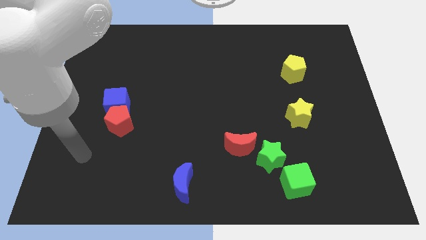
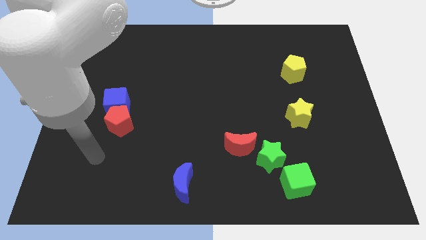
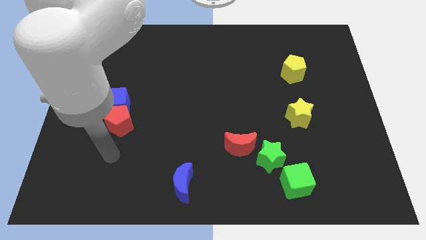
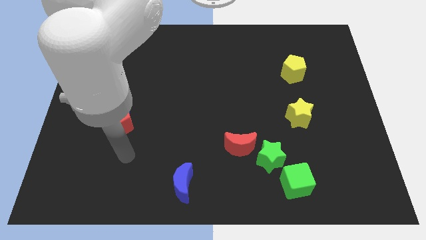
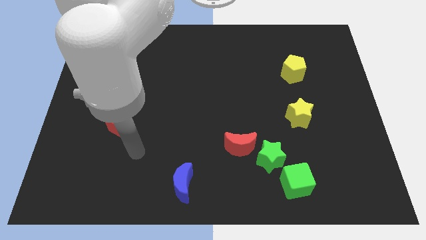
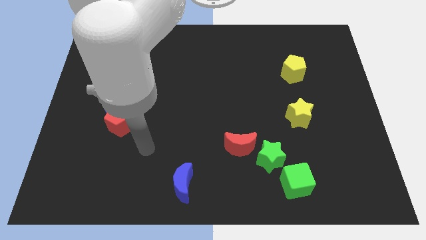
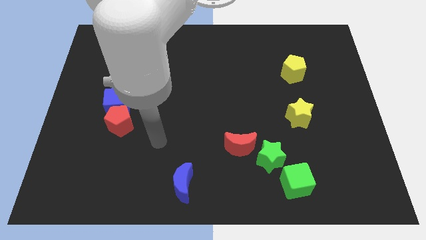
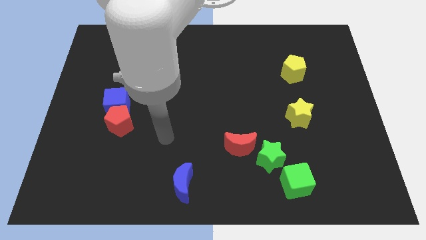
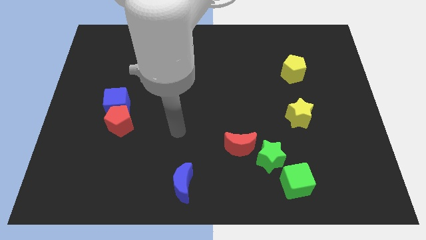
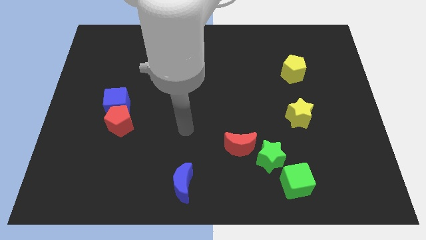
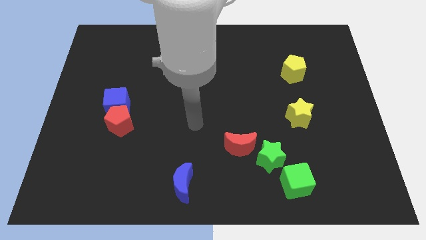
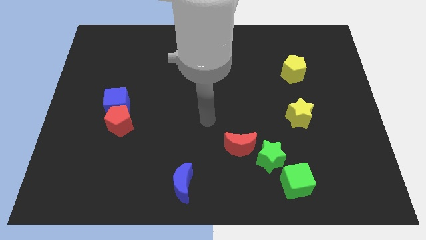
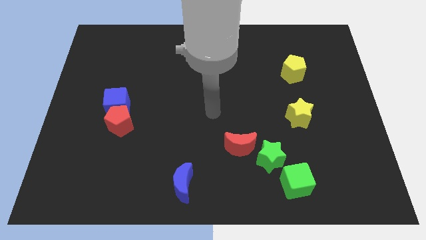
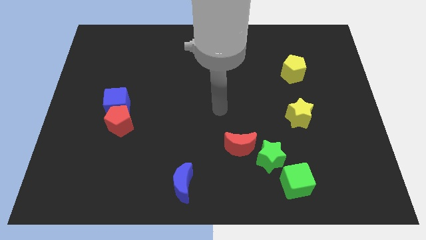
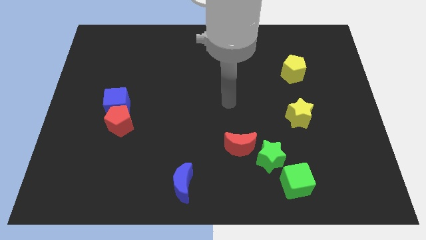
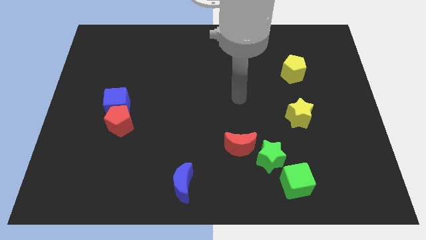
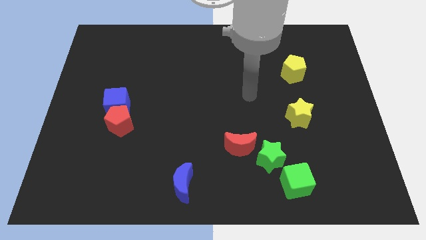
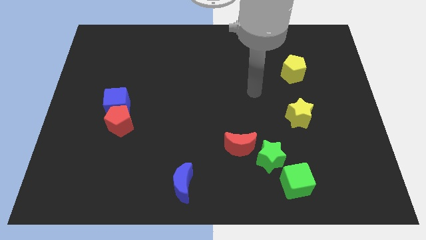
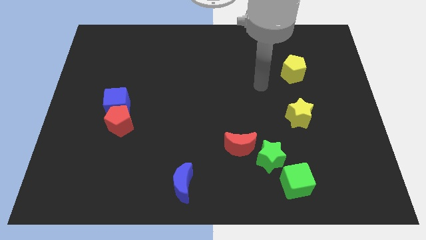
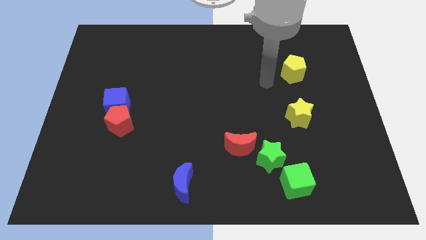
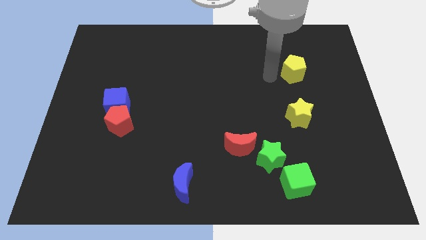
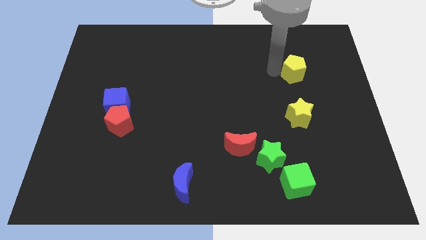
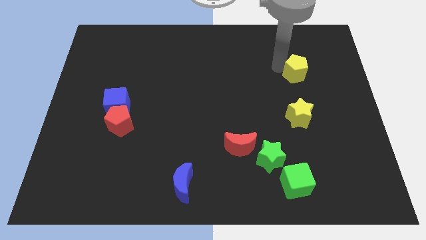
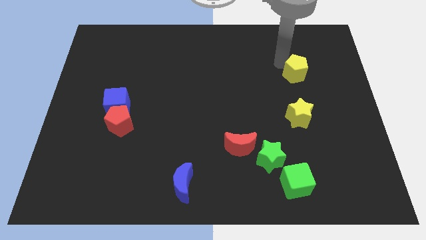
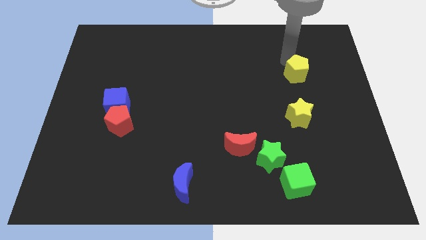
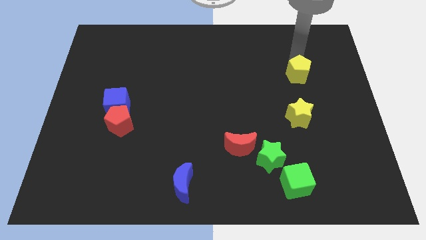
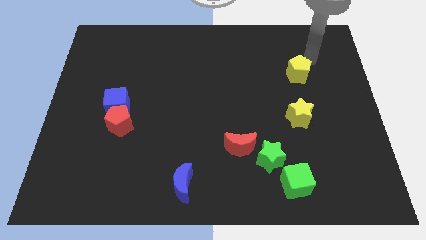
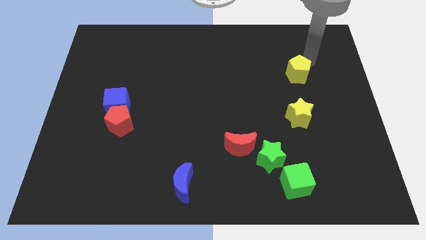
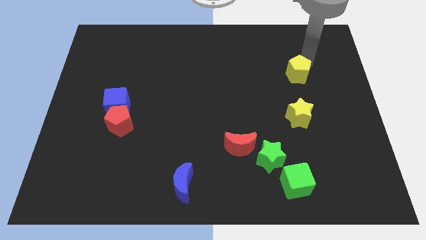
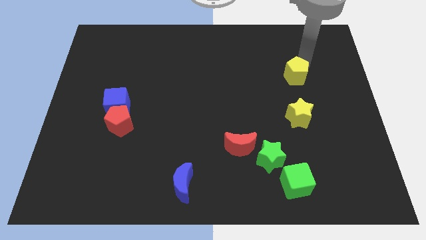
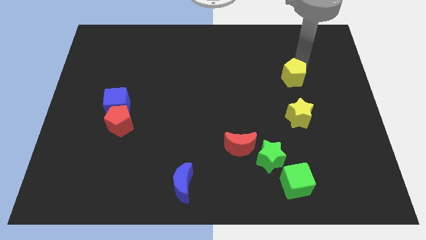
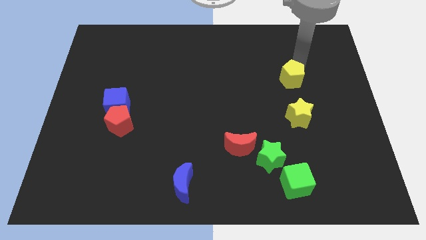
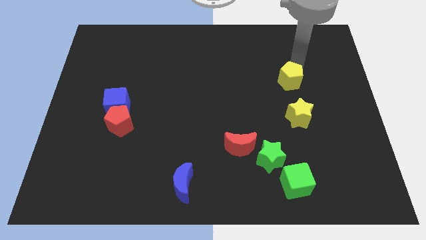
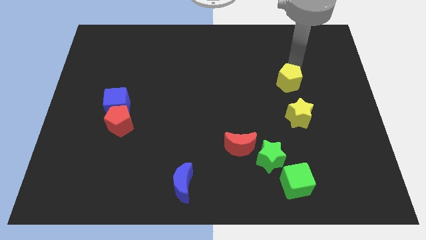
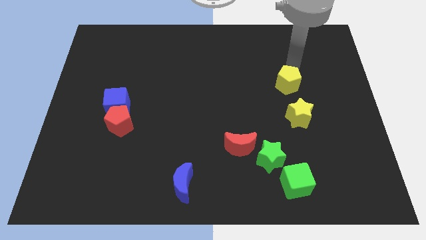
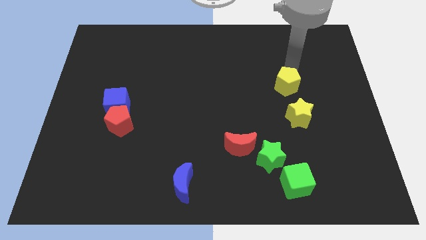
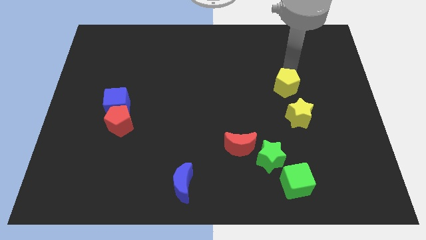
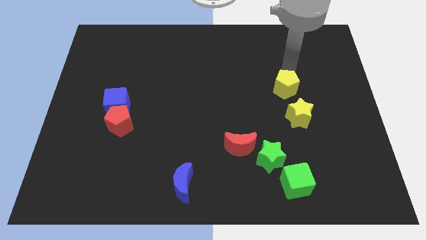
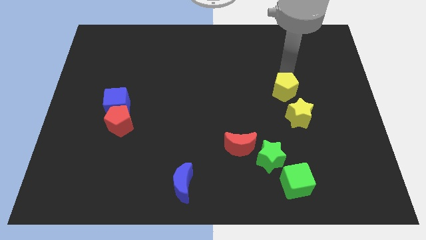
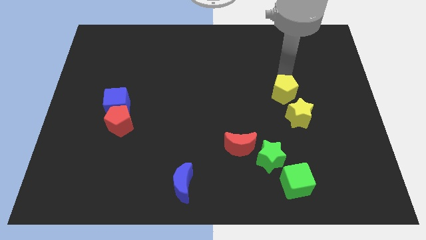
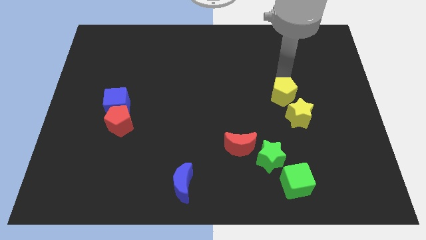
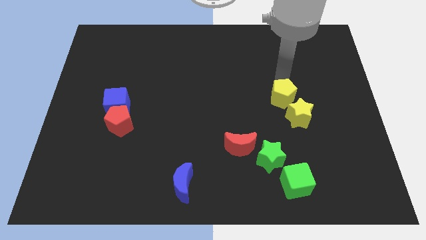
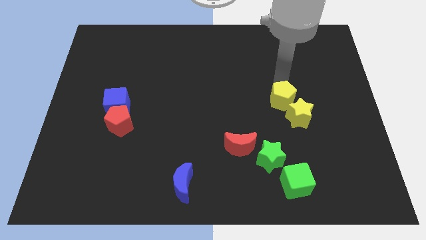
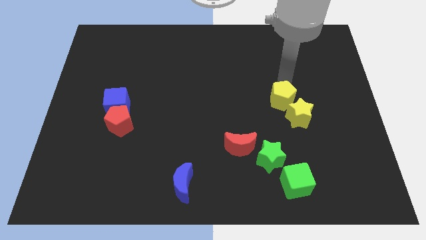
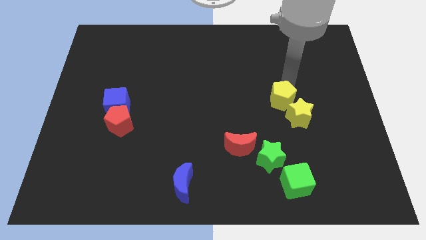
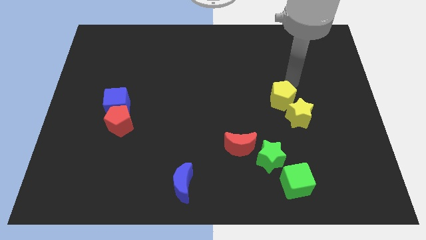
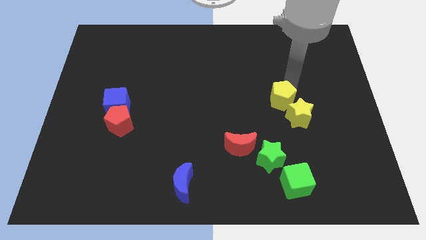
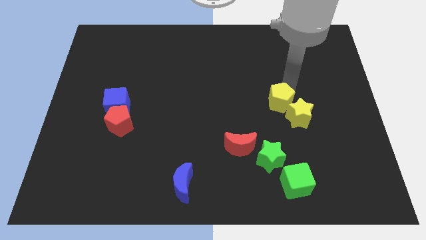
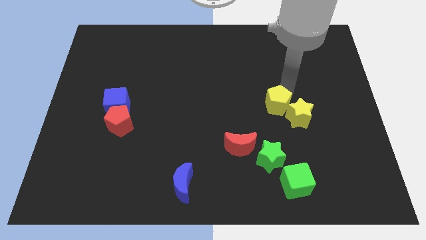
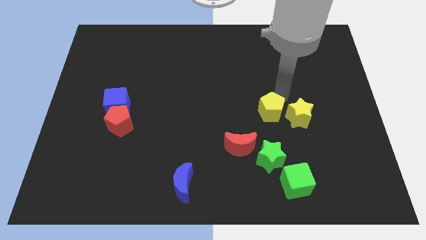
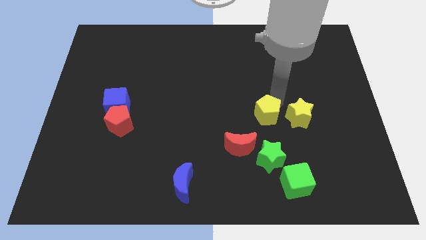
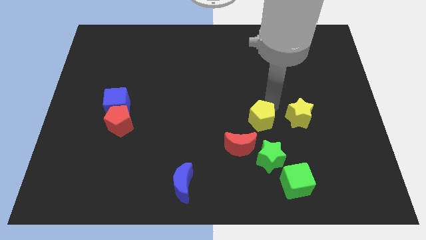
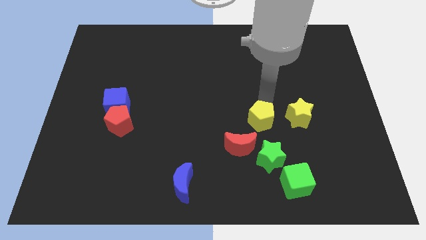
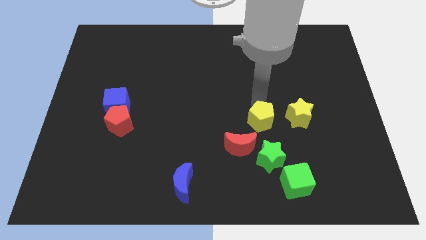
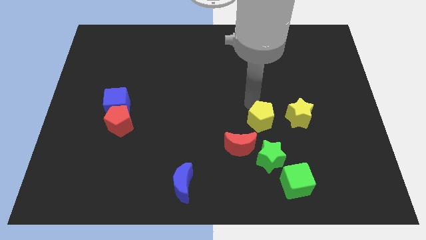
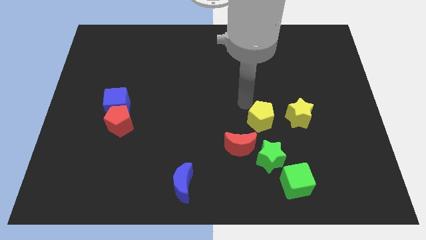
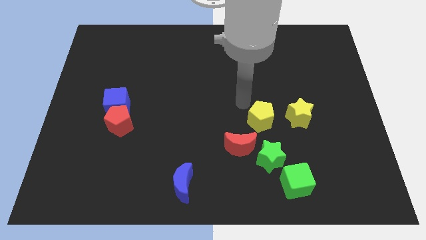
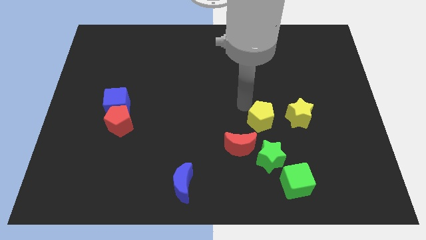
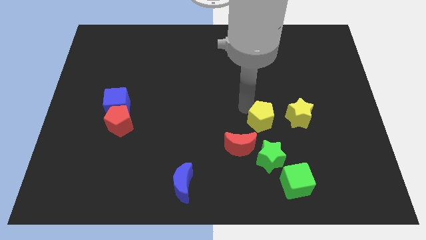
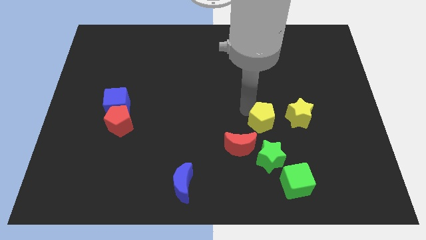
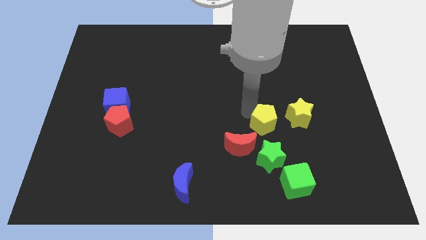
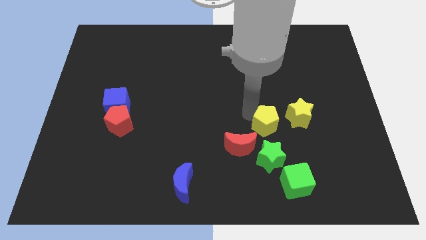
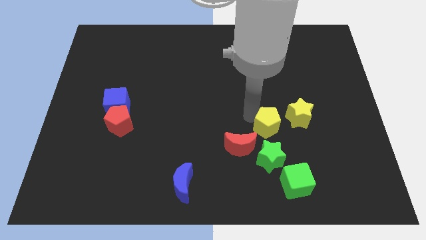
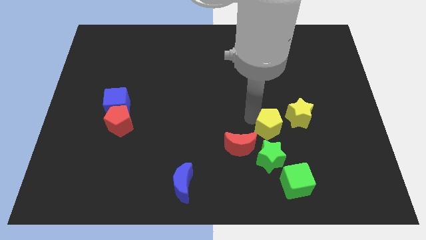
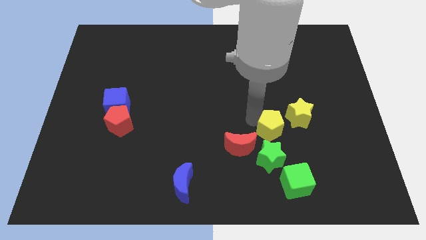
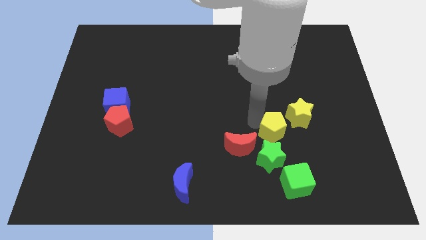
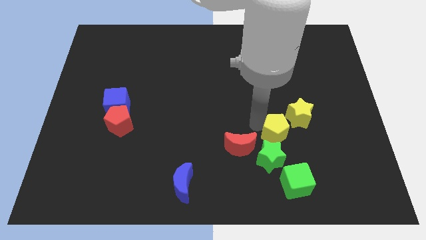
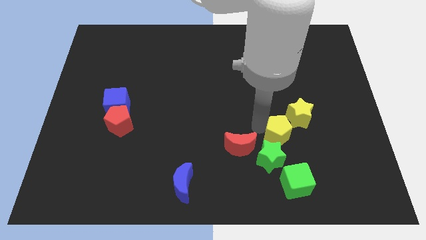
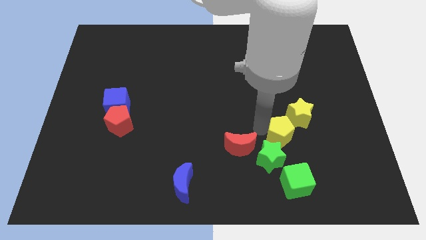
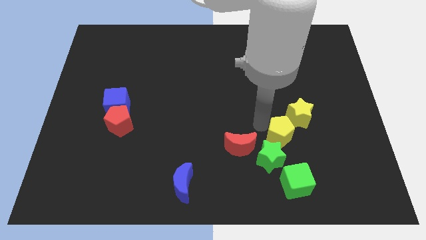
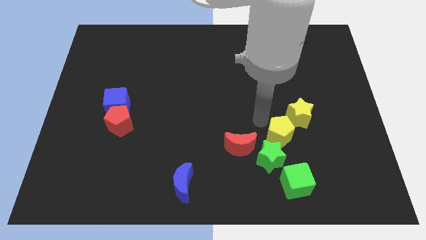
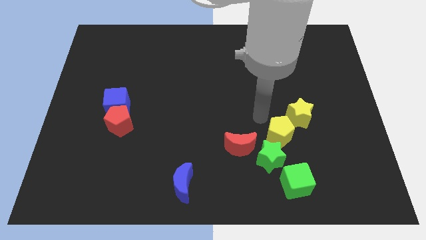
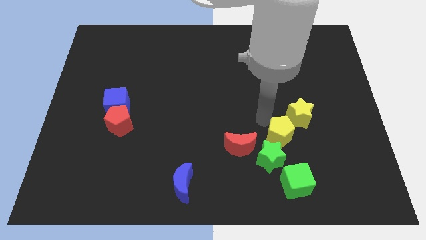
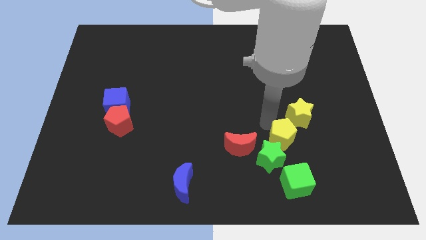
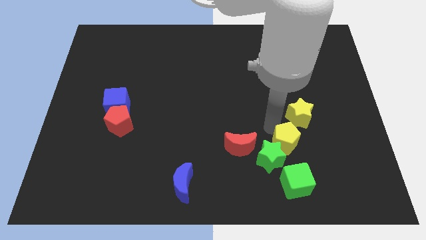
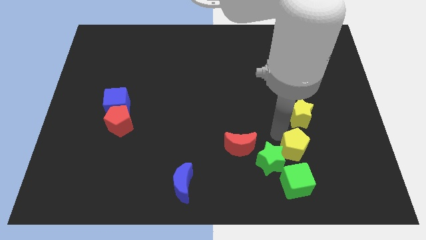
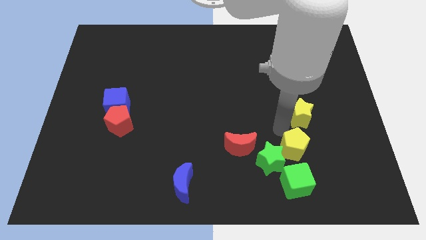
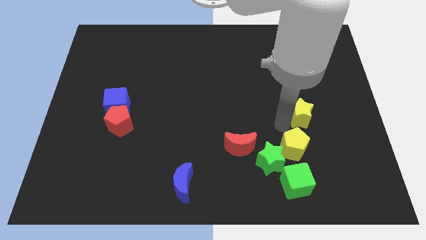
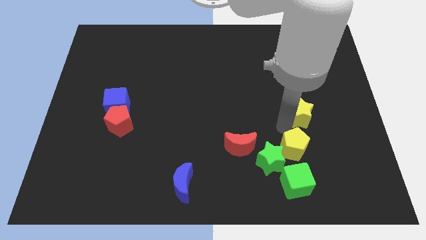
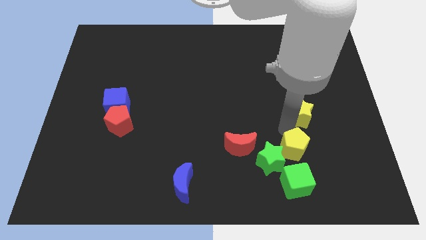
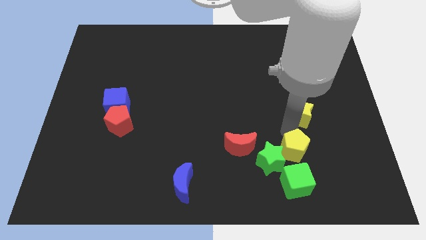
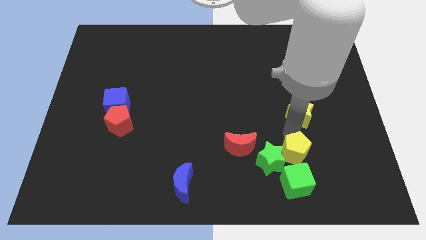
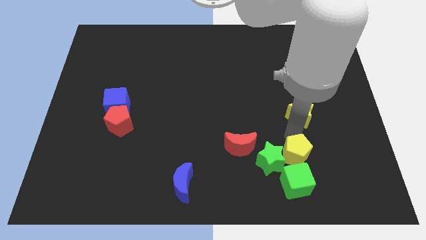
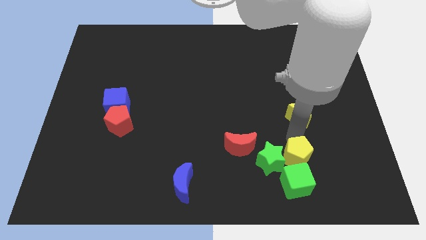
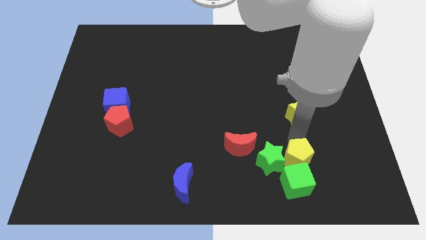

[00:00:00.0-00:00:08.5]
move the yellow pentagon towards the green cube
